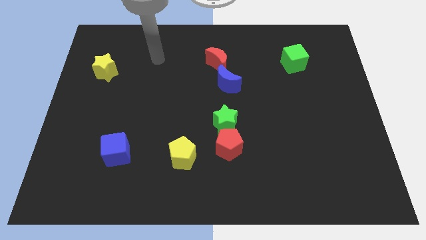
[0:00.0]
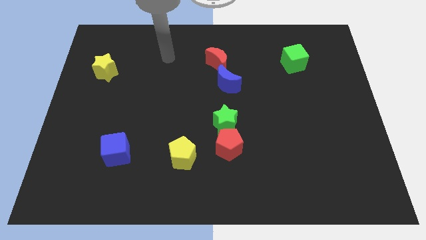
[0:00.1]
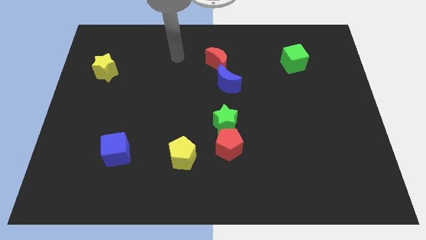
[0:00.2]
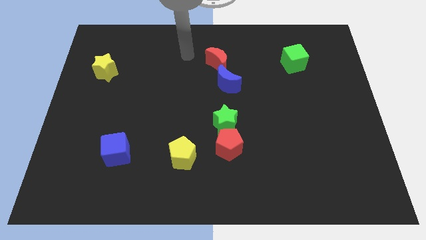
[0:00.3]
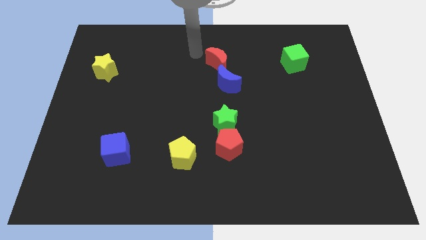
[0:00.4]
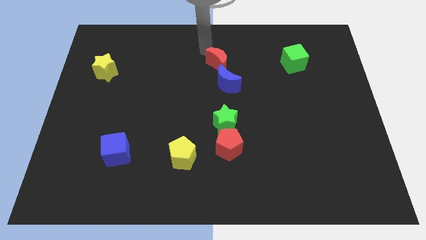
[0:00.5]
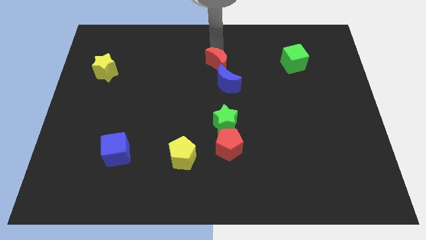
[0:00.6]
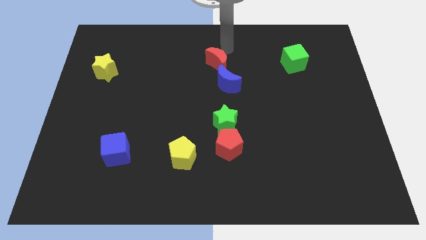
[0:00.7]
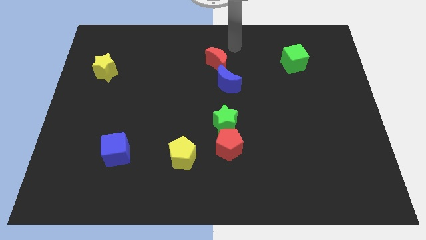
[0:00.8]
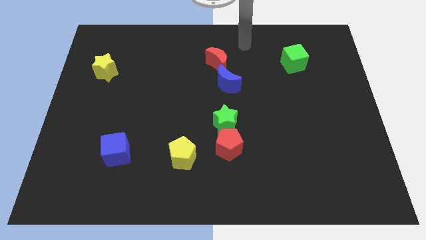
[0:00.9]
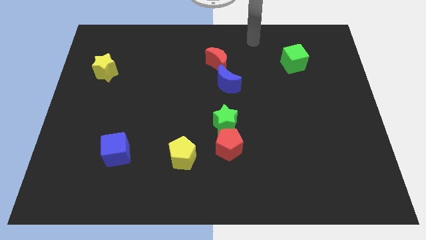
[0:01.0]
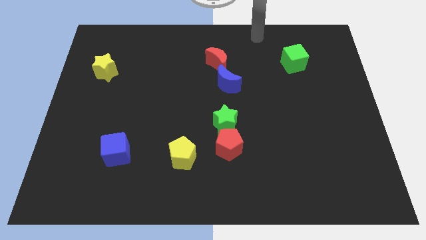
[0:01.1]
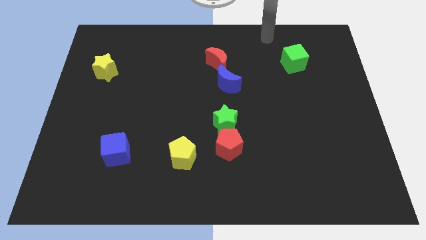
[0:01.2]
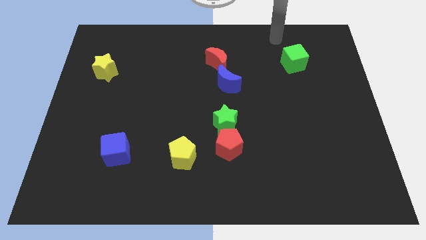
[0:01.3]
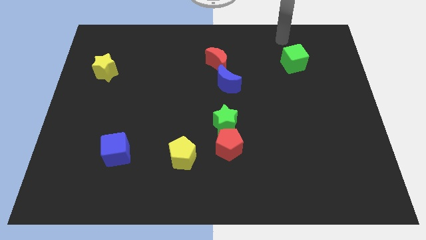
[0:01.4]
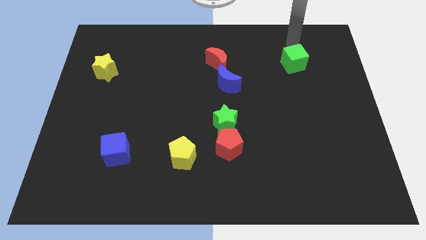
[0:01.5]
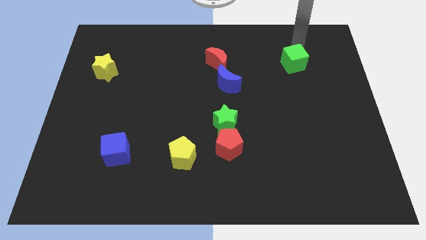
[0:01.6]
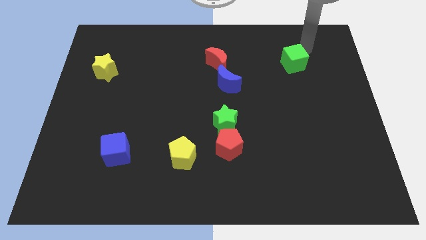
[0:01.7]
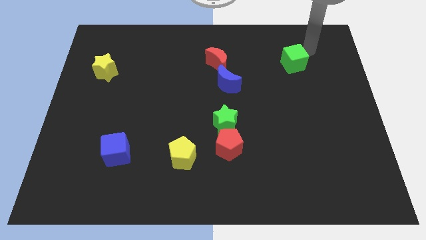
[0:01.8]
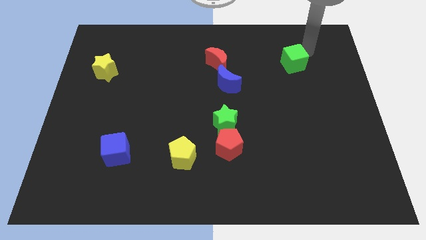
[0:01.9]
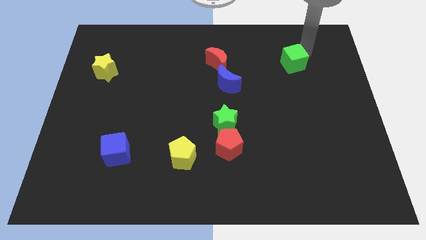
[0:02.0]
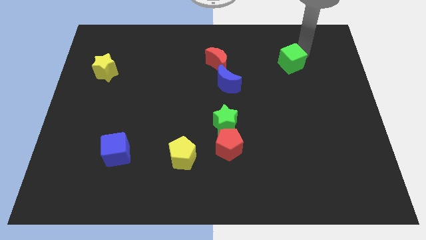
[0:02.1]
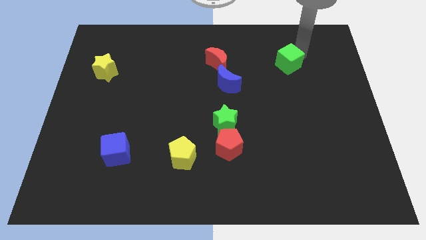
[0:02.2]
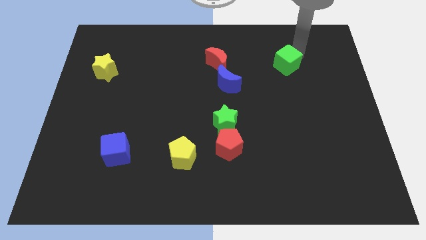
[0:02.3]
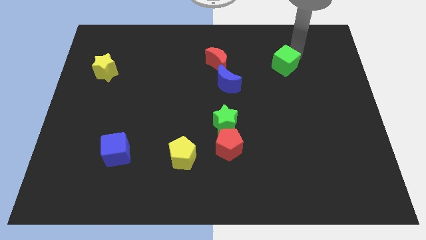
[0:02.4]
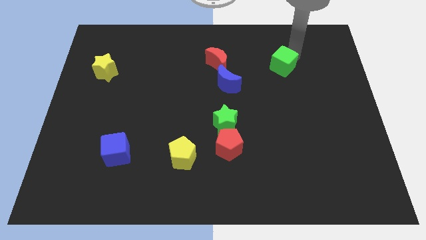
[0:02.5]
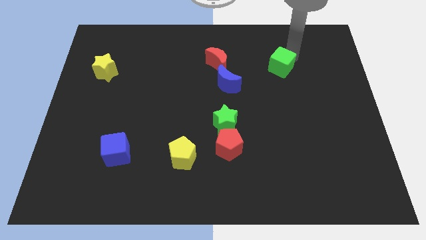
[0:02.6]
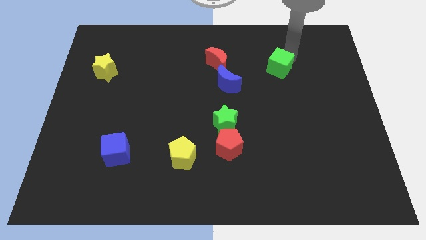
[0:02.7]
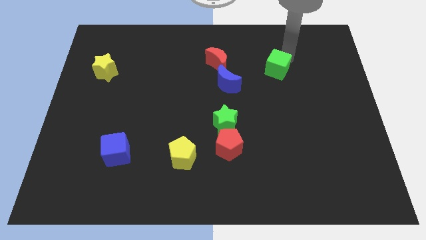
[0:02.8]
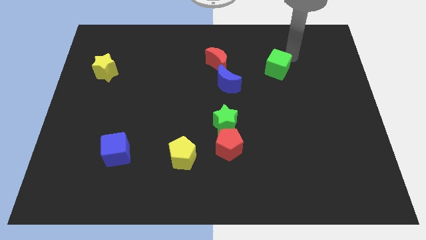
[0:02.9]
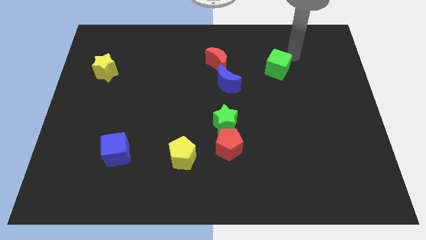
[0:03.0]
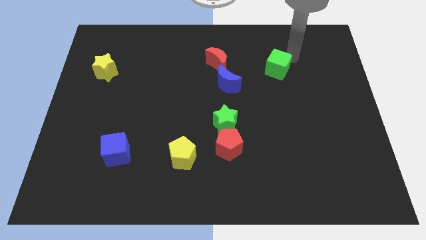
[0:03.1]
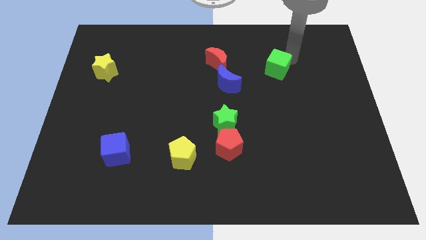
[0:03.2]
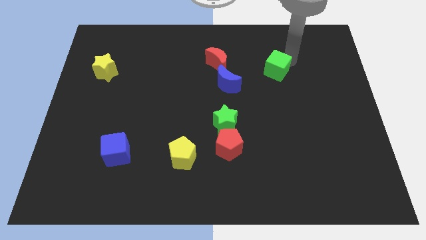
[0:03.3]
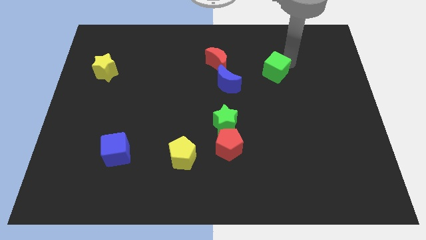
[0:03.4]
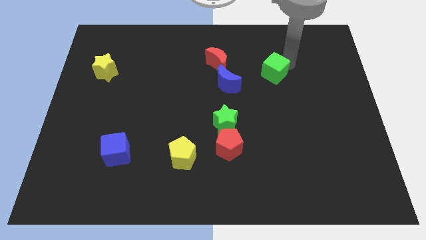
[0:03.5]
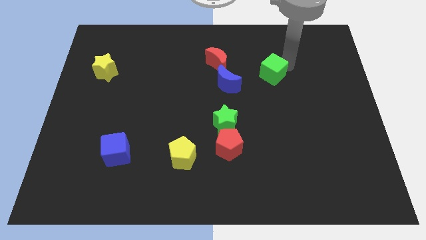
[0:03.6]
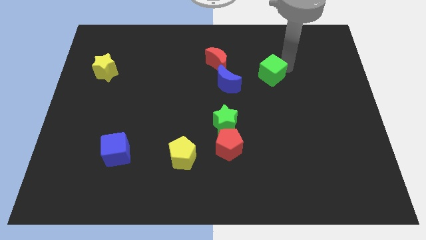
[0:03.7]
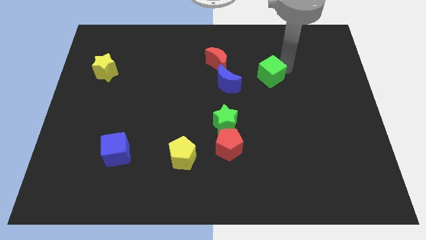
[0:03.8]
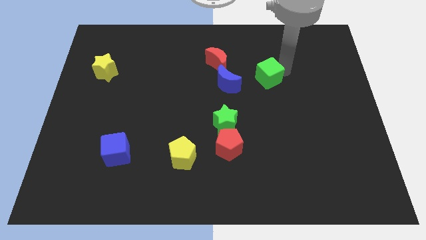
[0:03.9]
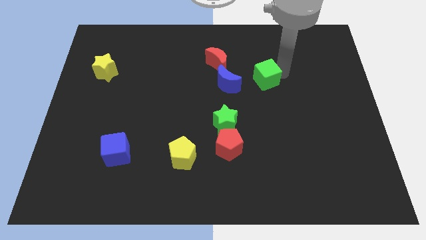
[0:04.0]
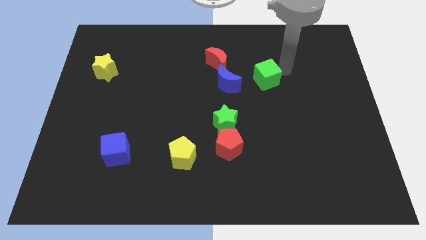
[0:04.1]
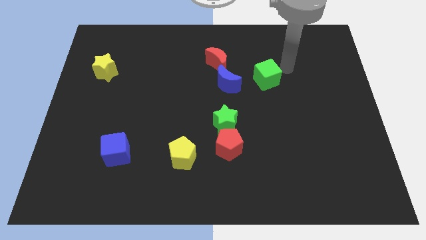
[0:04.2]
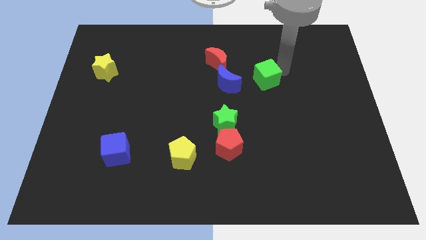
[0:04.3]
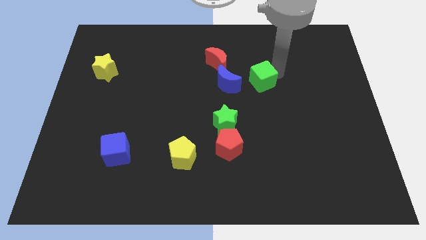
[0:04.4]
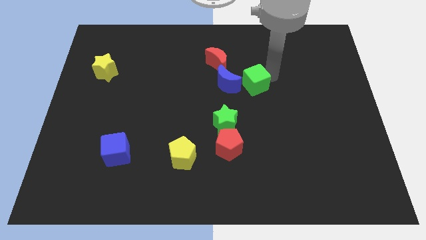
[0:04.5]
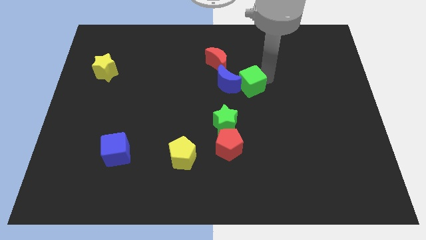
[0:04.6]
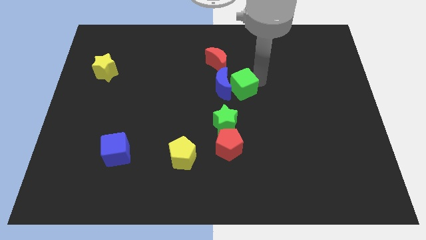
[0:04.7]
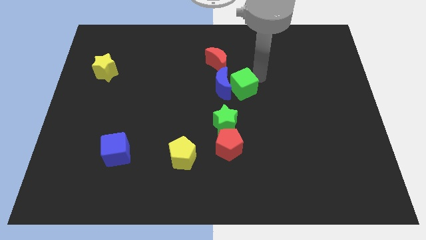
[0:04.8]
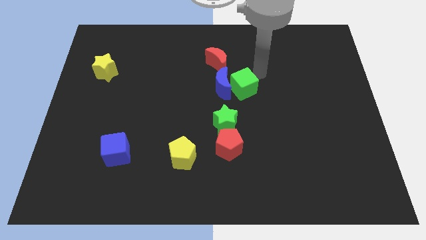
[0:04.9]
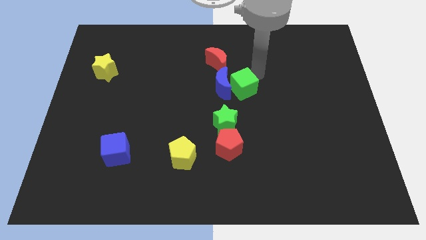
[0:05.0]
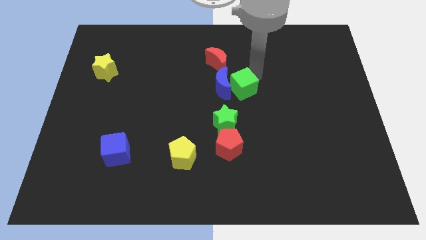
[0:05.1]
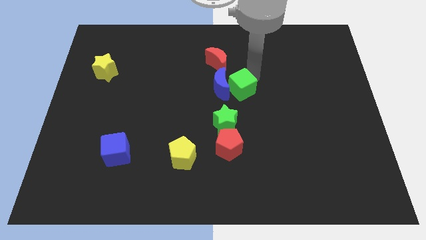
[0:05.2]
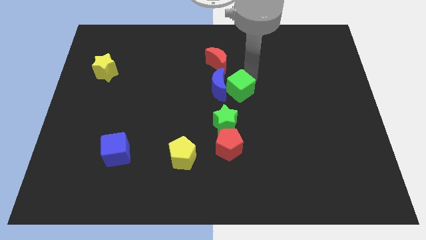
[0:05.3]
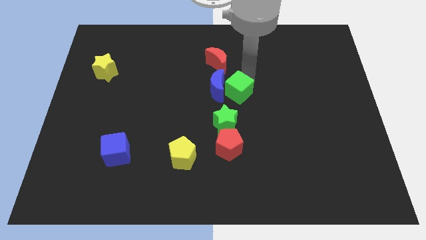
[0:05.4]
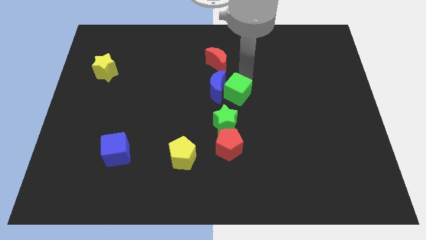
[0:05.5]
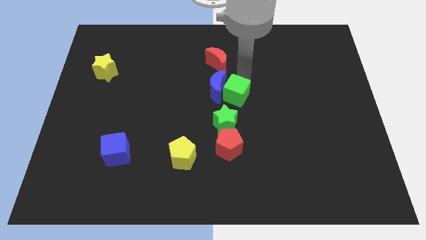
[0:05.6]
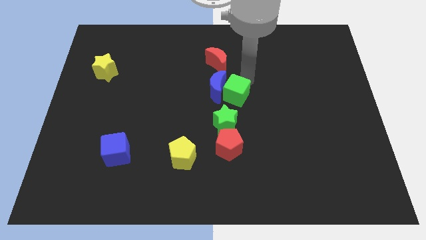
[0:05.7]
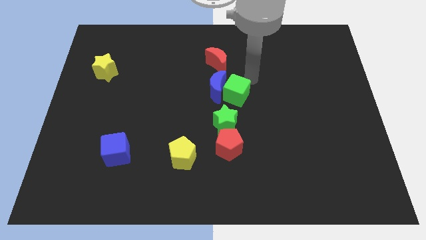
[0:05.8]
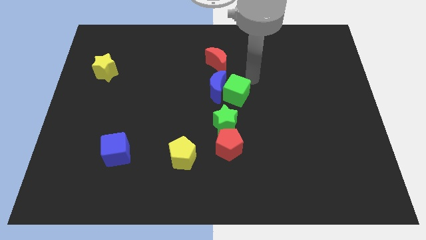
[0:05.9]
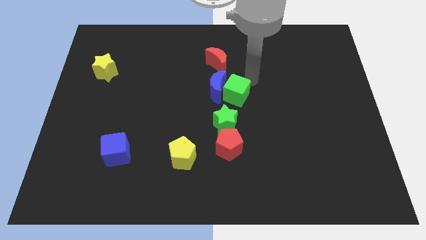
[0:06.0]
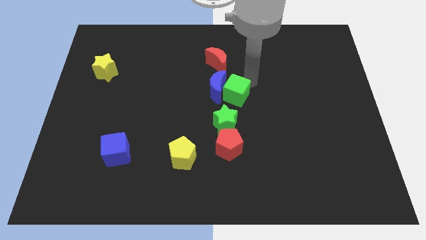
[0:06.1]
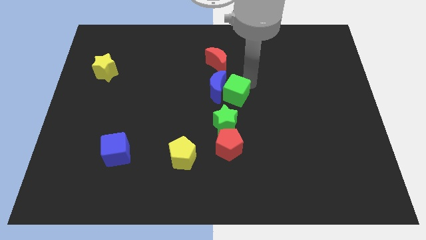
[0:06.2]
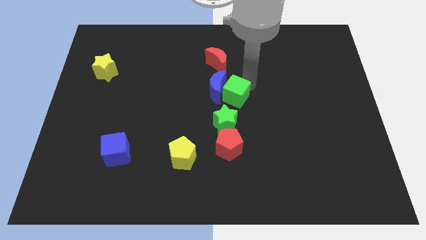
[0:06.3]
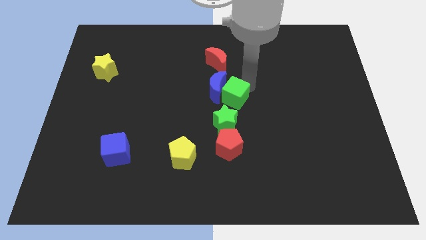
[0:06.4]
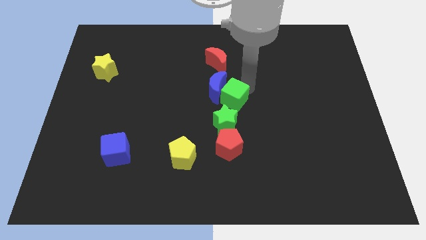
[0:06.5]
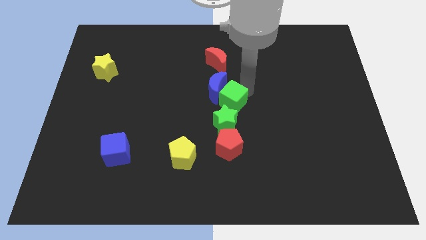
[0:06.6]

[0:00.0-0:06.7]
push the green cube downwards and to the left diagonally

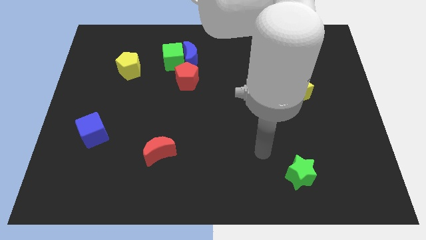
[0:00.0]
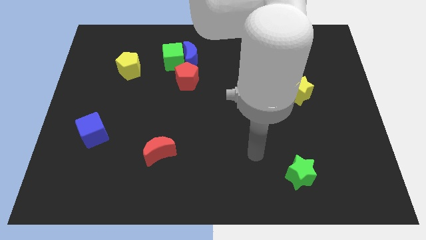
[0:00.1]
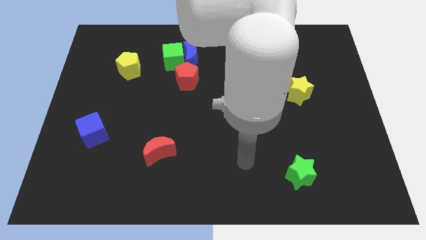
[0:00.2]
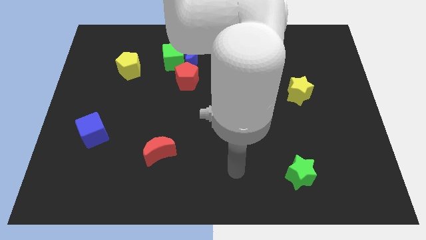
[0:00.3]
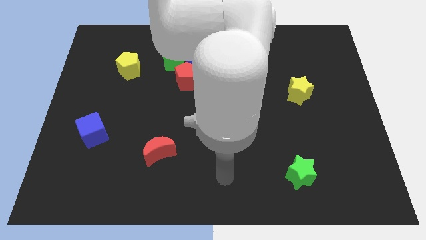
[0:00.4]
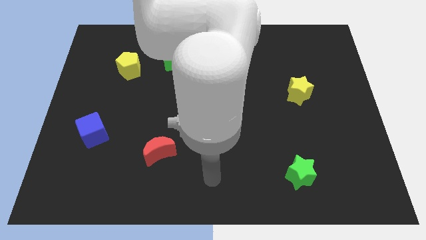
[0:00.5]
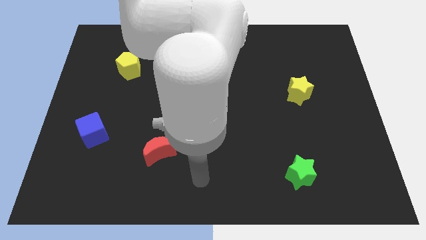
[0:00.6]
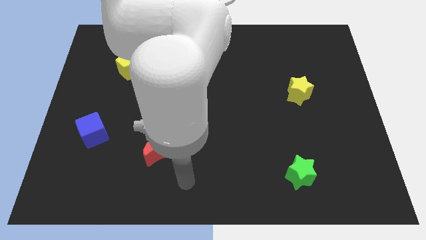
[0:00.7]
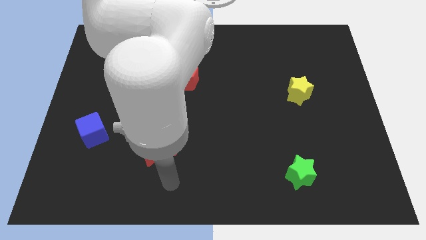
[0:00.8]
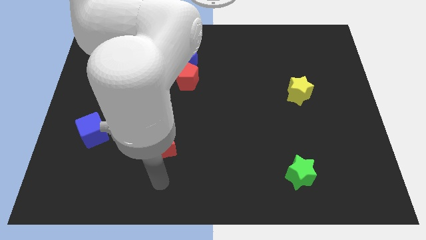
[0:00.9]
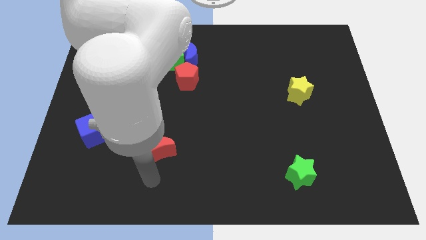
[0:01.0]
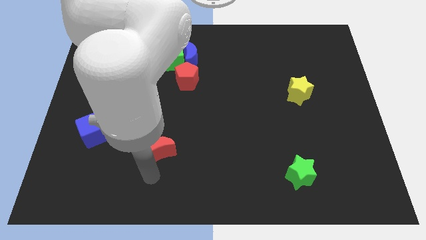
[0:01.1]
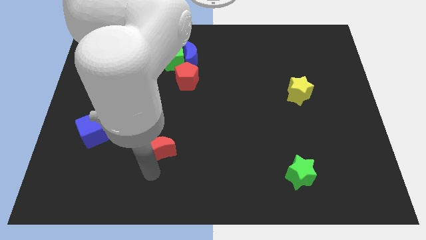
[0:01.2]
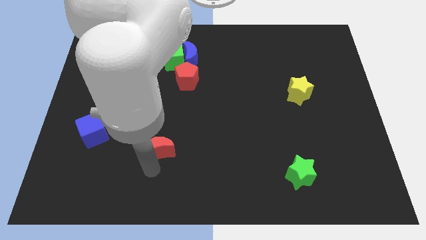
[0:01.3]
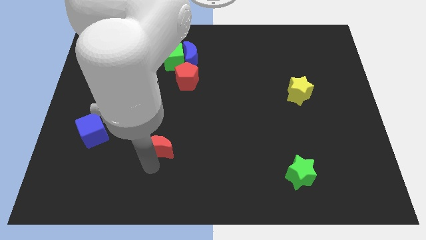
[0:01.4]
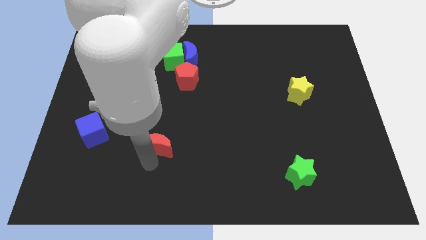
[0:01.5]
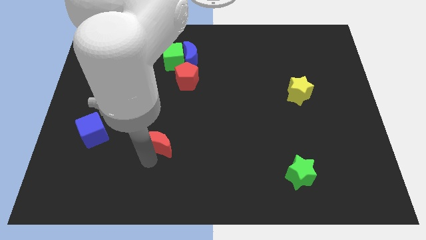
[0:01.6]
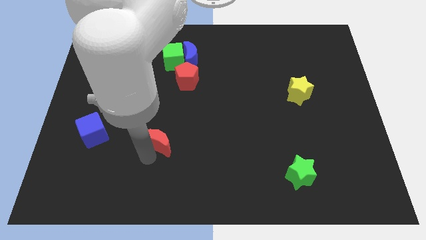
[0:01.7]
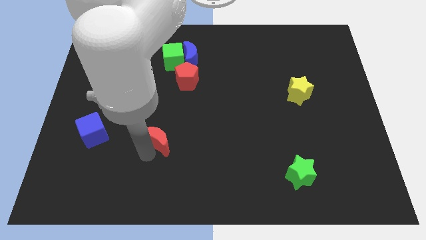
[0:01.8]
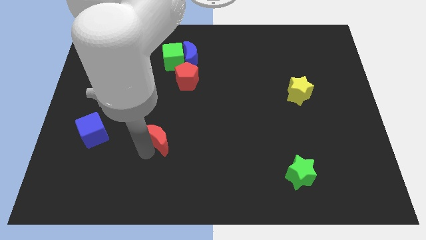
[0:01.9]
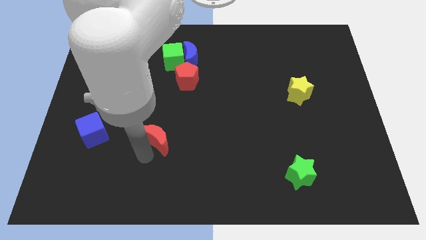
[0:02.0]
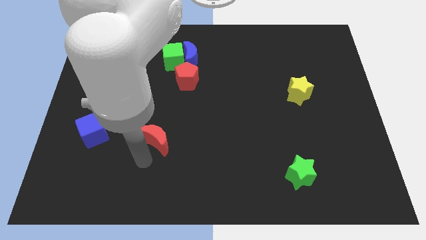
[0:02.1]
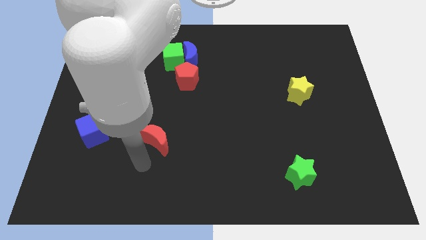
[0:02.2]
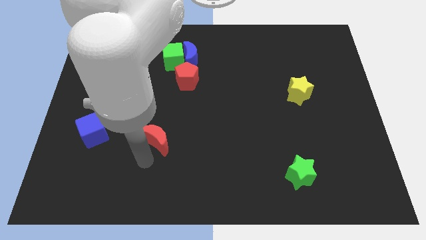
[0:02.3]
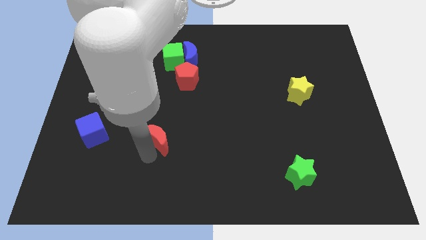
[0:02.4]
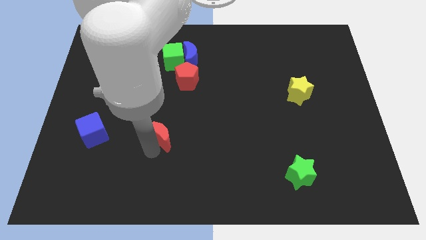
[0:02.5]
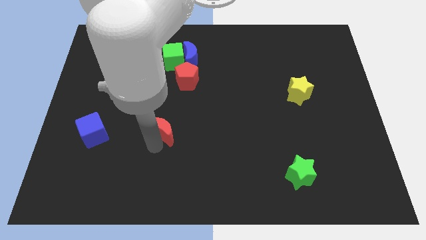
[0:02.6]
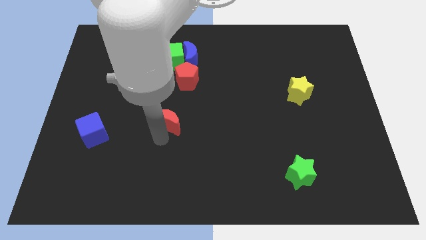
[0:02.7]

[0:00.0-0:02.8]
slightly slide the red moon upwards
